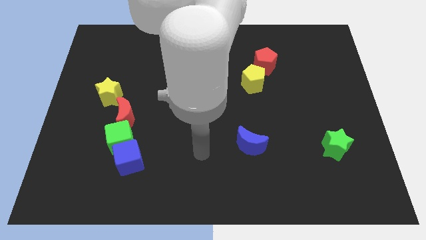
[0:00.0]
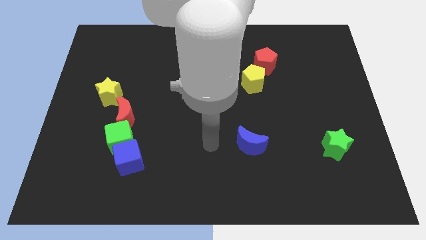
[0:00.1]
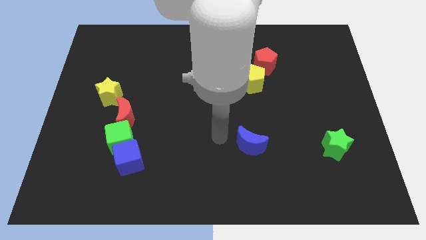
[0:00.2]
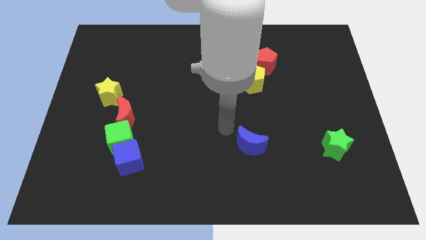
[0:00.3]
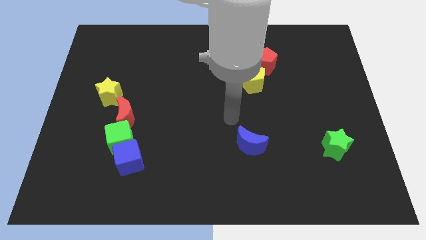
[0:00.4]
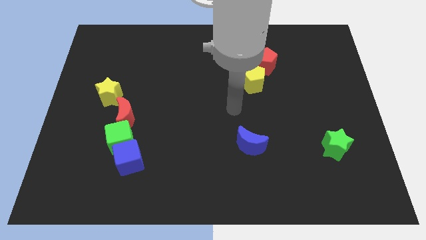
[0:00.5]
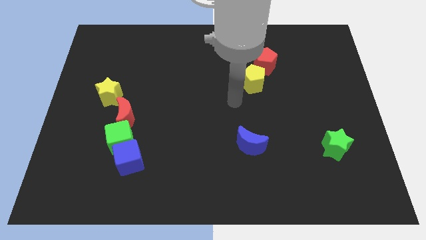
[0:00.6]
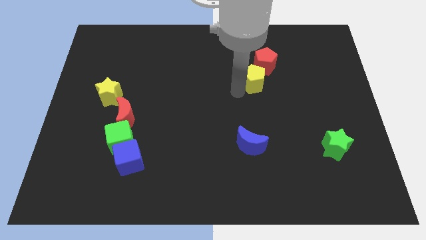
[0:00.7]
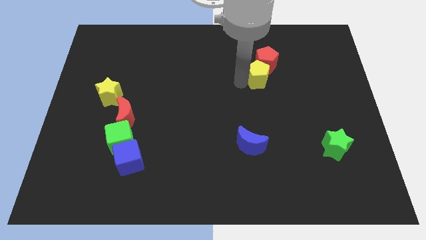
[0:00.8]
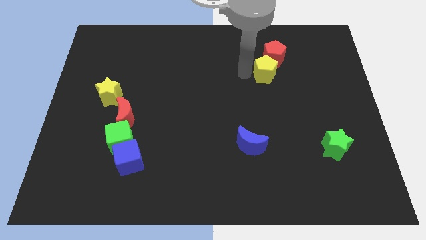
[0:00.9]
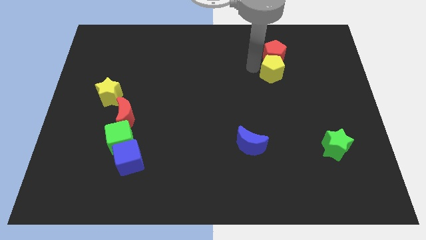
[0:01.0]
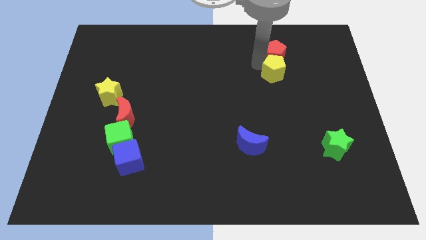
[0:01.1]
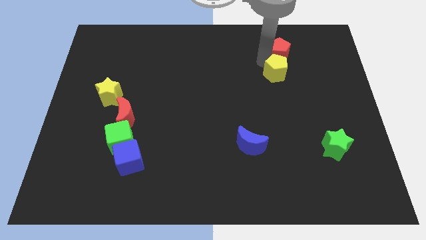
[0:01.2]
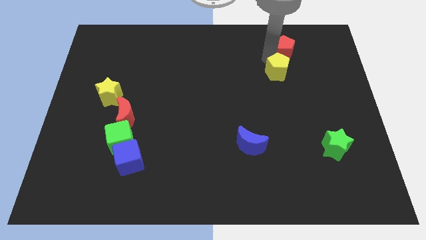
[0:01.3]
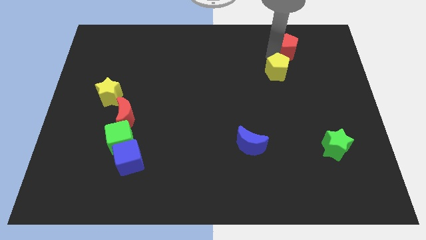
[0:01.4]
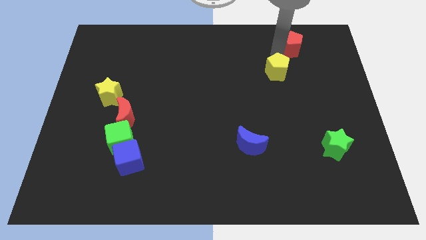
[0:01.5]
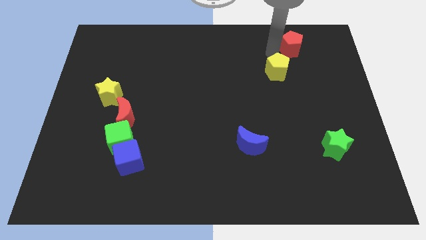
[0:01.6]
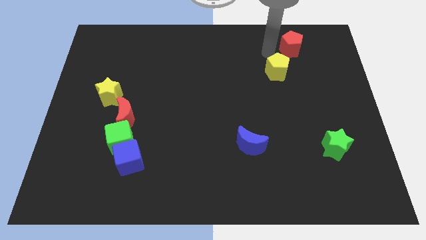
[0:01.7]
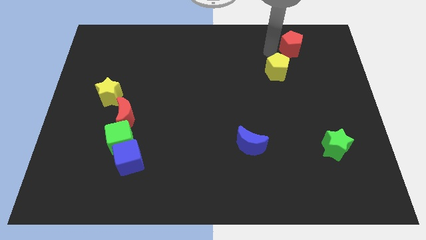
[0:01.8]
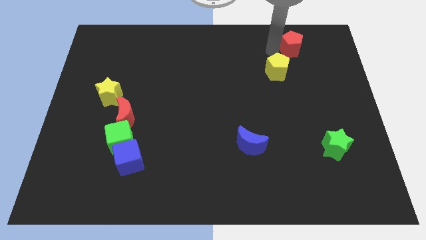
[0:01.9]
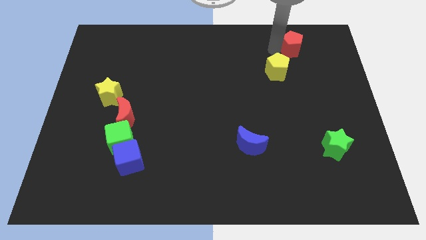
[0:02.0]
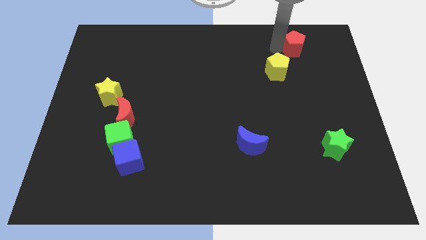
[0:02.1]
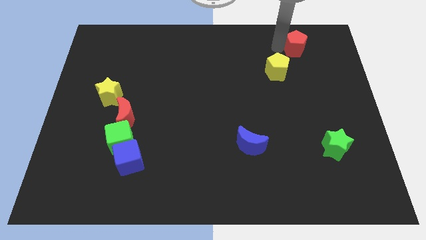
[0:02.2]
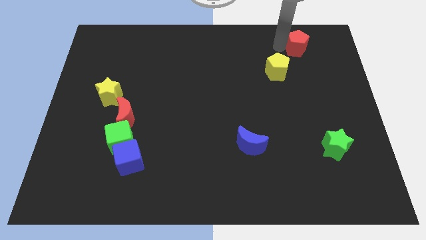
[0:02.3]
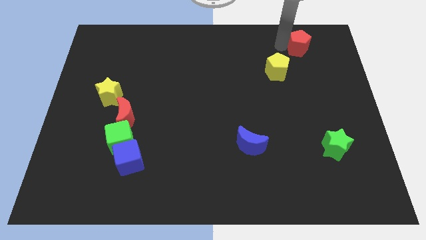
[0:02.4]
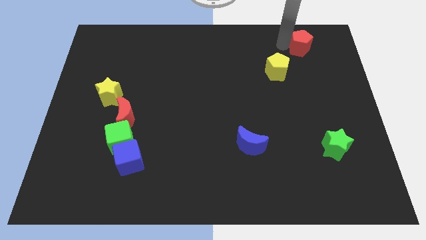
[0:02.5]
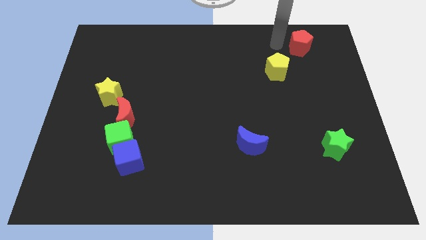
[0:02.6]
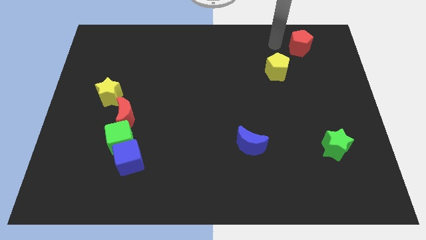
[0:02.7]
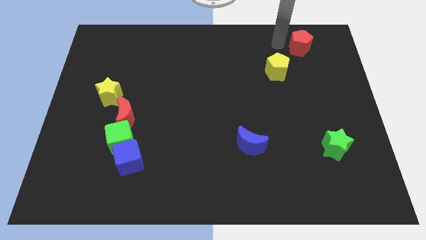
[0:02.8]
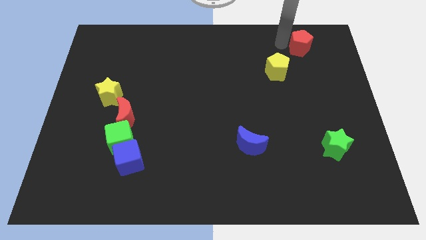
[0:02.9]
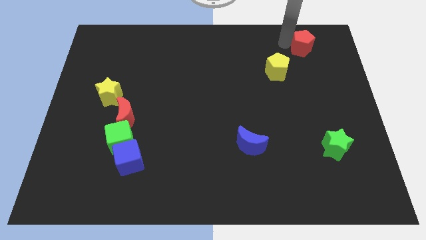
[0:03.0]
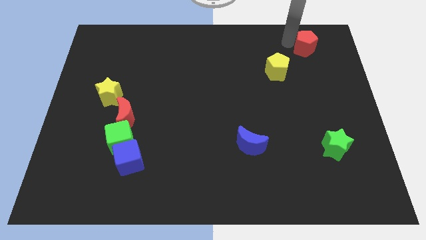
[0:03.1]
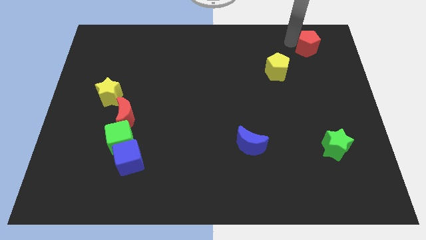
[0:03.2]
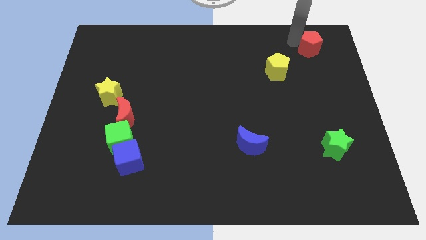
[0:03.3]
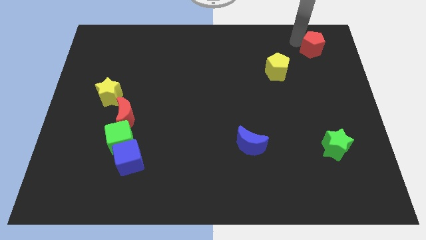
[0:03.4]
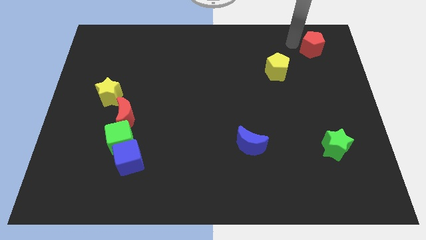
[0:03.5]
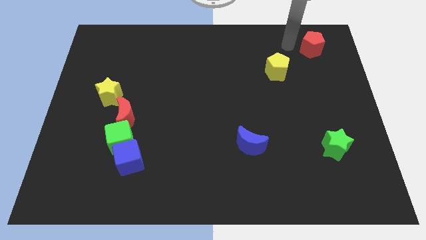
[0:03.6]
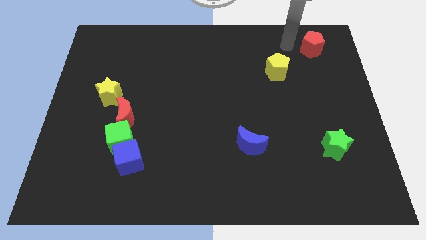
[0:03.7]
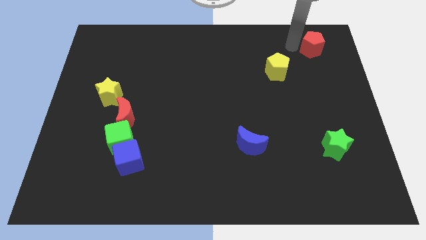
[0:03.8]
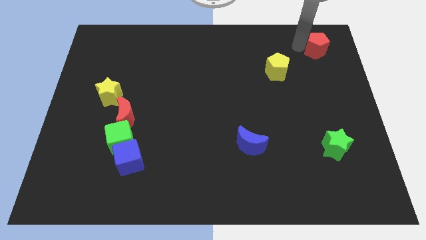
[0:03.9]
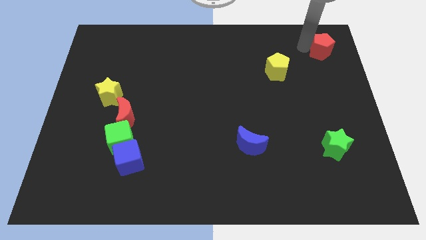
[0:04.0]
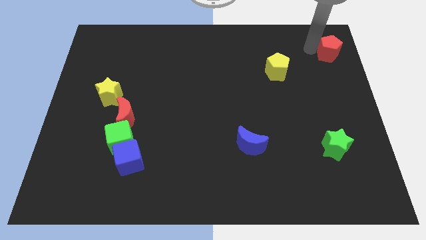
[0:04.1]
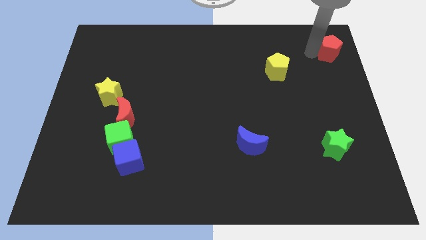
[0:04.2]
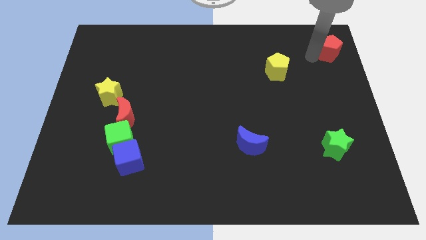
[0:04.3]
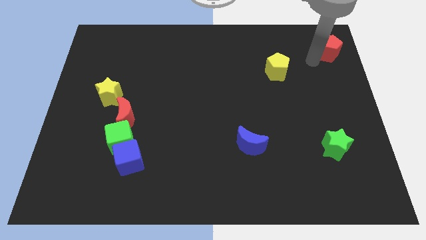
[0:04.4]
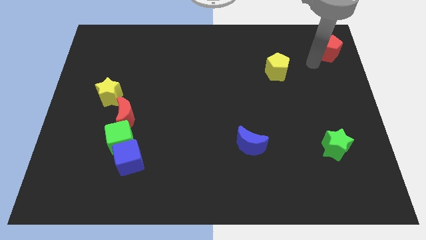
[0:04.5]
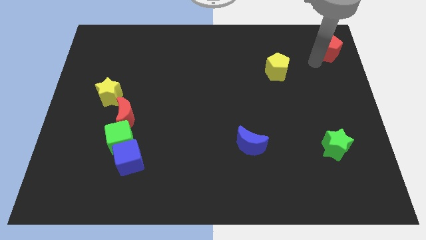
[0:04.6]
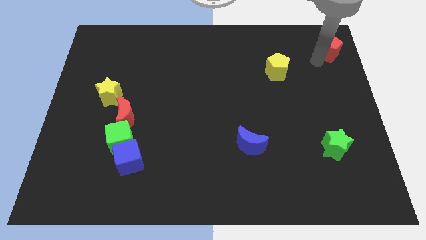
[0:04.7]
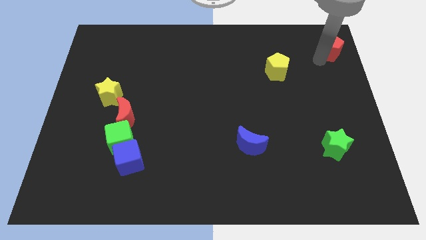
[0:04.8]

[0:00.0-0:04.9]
put the red pentagon to the upper right corner

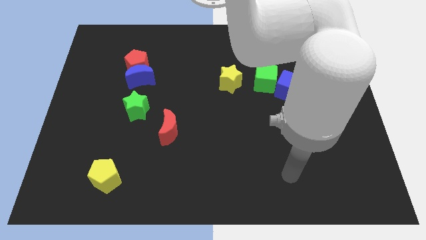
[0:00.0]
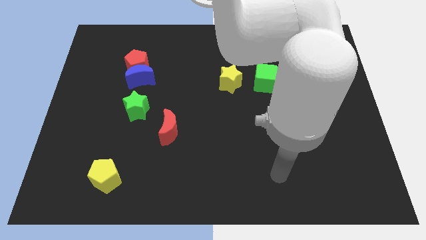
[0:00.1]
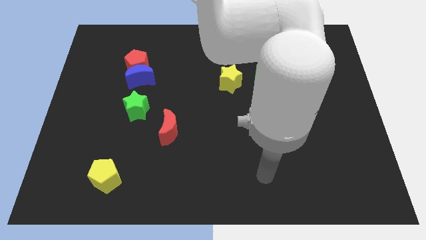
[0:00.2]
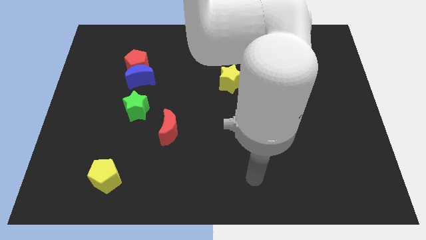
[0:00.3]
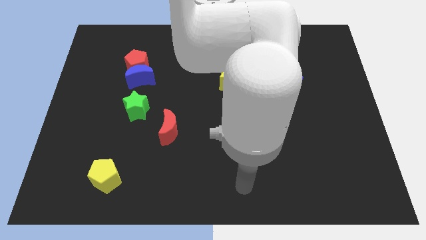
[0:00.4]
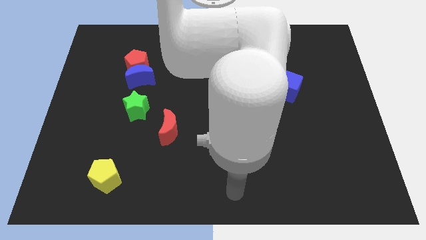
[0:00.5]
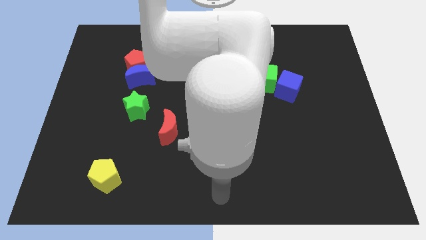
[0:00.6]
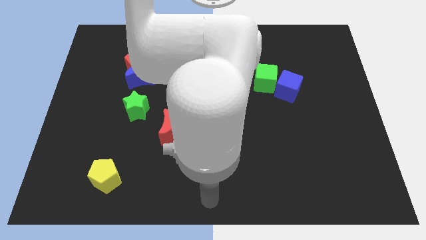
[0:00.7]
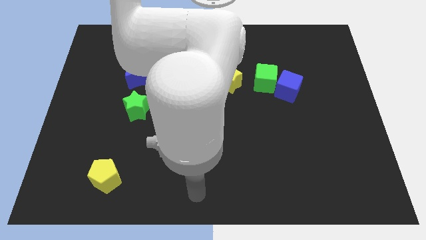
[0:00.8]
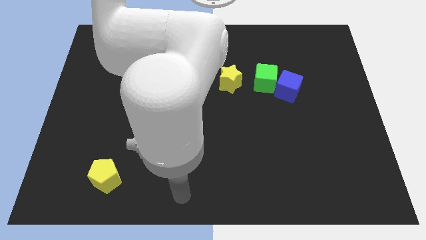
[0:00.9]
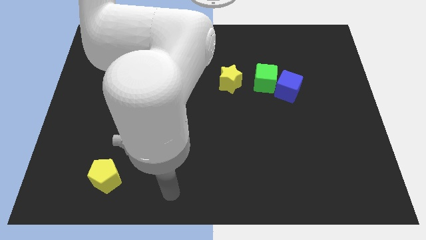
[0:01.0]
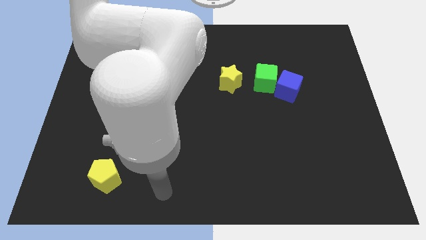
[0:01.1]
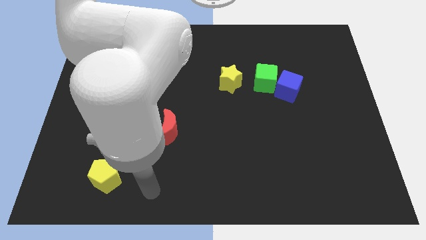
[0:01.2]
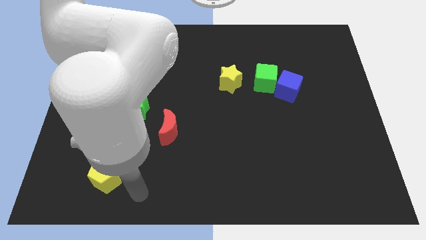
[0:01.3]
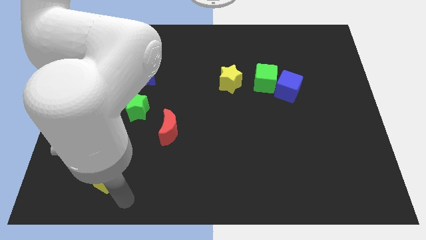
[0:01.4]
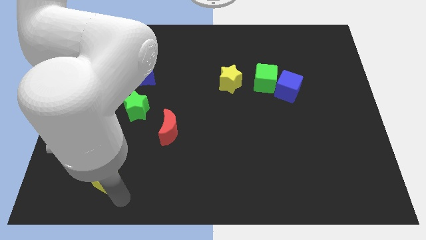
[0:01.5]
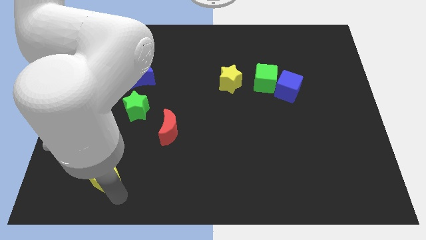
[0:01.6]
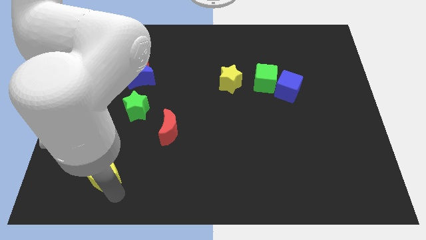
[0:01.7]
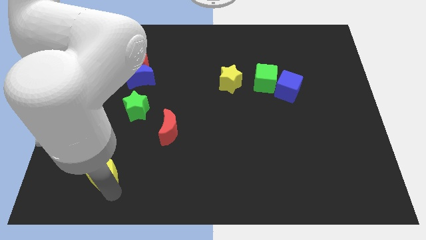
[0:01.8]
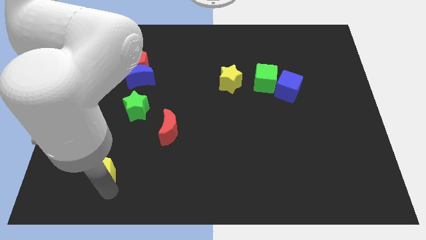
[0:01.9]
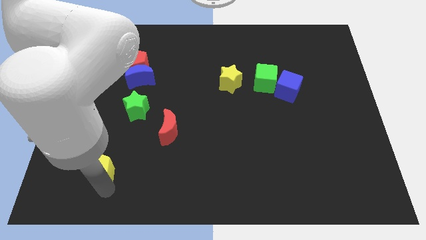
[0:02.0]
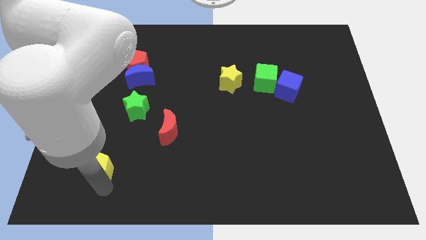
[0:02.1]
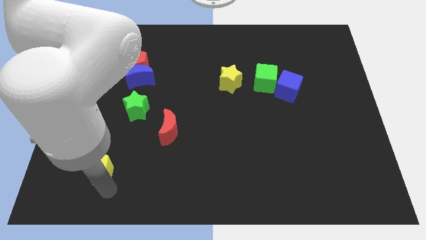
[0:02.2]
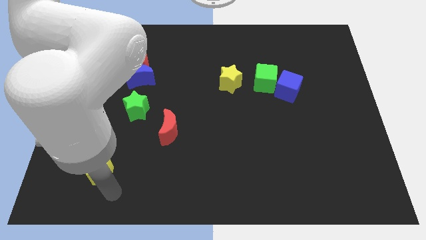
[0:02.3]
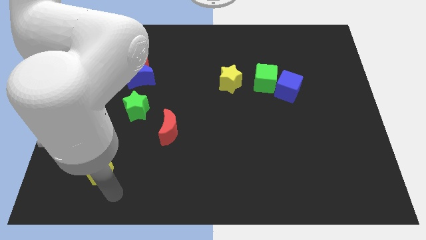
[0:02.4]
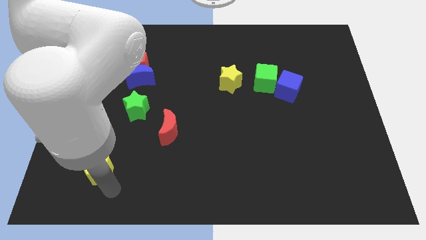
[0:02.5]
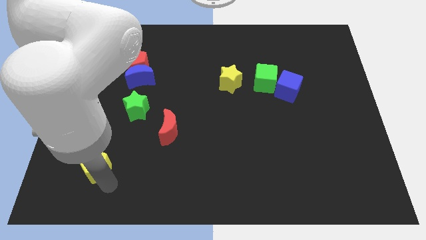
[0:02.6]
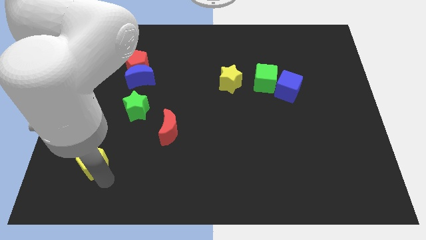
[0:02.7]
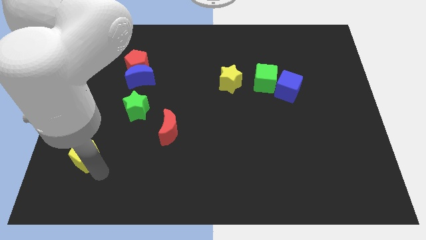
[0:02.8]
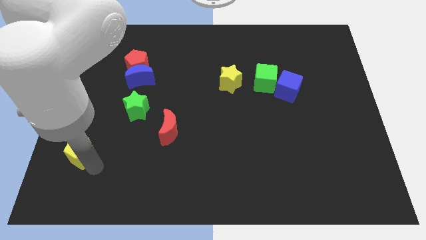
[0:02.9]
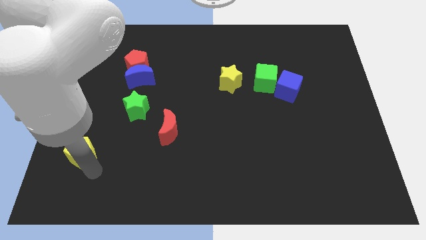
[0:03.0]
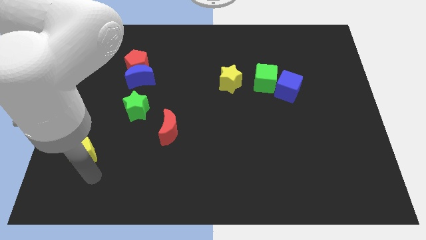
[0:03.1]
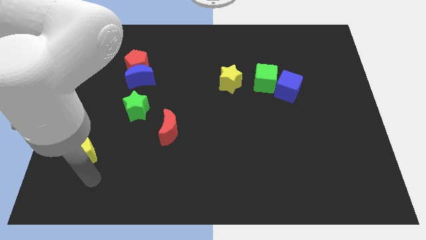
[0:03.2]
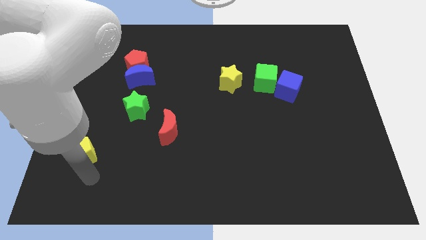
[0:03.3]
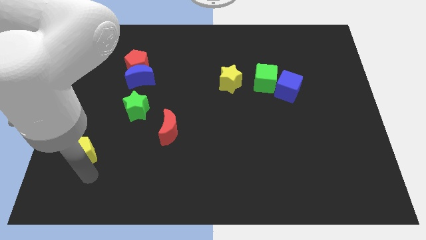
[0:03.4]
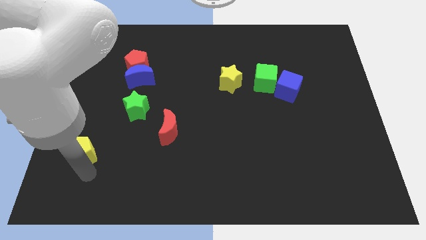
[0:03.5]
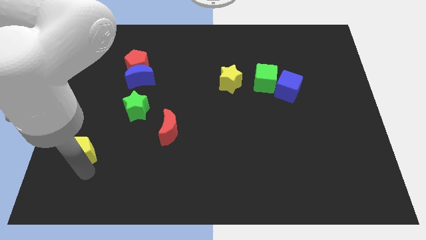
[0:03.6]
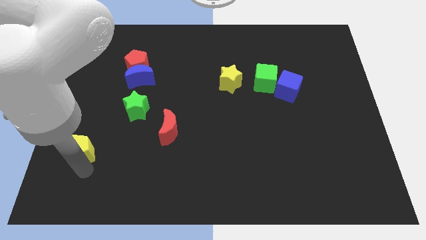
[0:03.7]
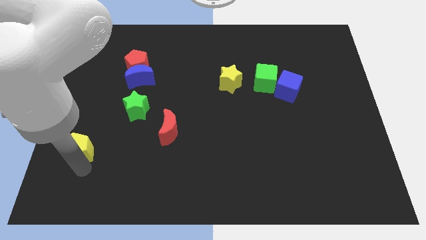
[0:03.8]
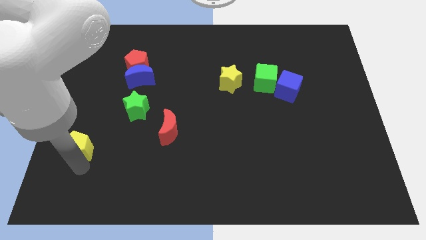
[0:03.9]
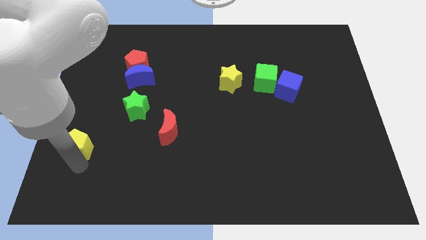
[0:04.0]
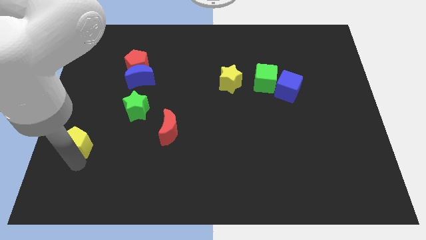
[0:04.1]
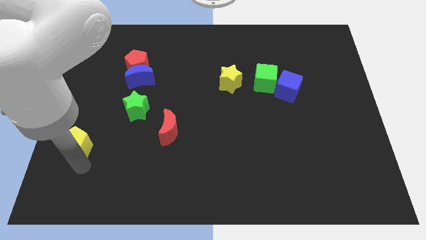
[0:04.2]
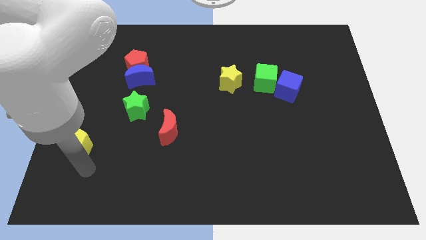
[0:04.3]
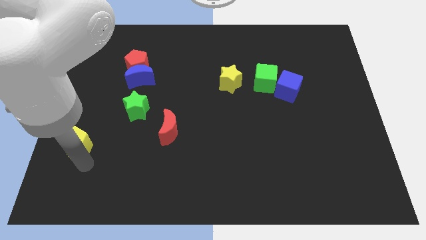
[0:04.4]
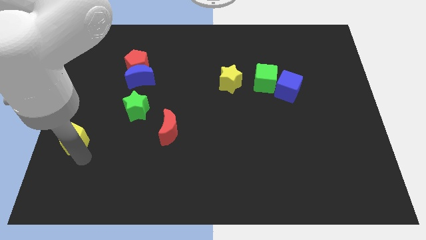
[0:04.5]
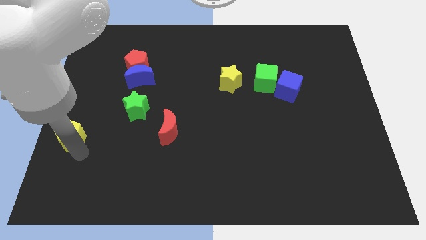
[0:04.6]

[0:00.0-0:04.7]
push the yellow pentagon to the left side
